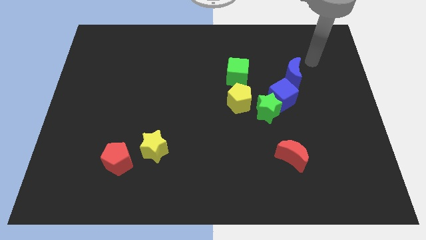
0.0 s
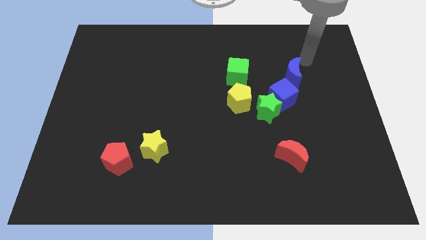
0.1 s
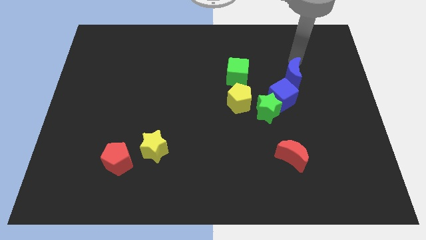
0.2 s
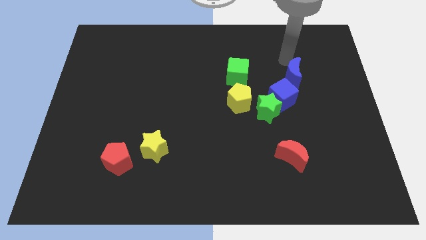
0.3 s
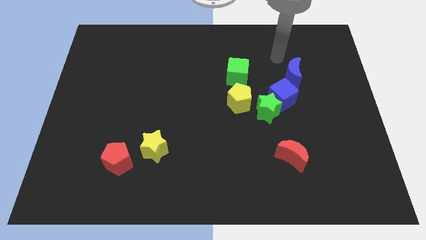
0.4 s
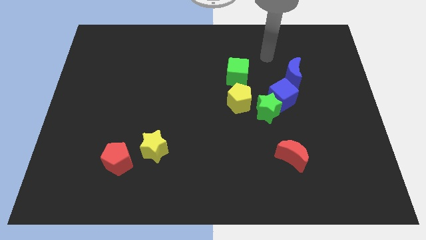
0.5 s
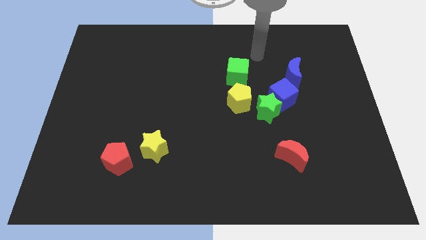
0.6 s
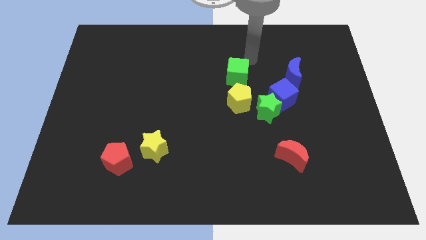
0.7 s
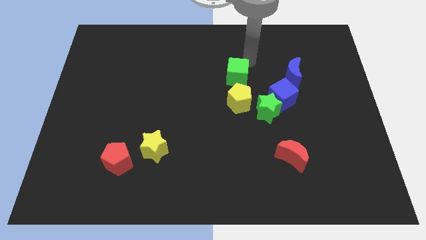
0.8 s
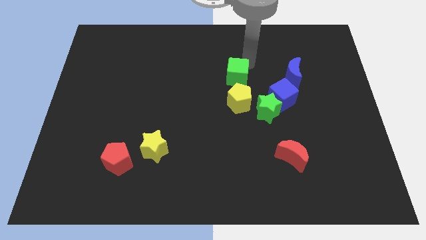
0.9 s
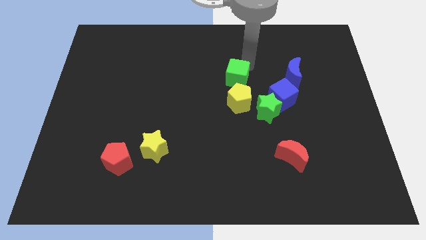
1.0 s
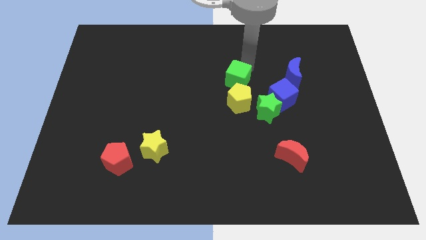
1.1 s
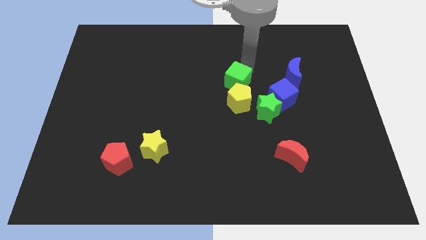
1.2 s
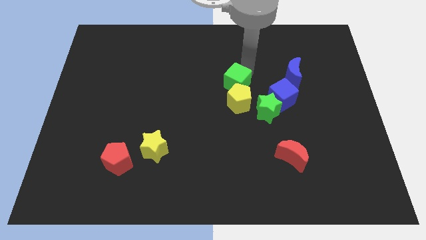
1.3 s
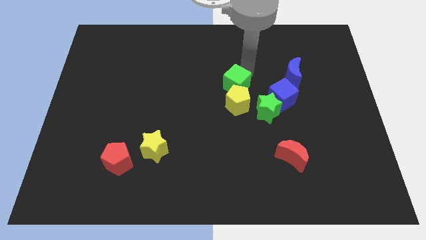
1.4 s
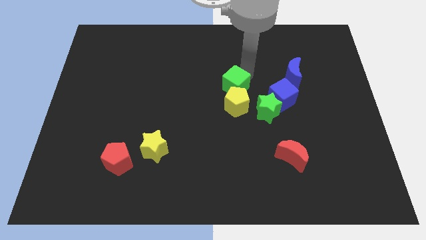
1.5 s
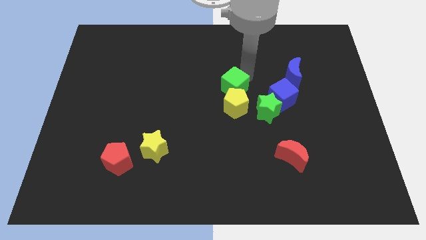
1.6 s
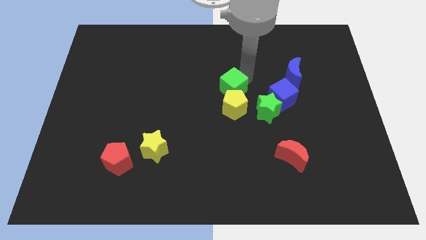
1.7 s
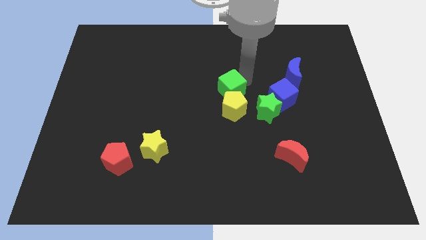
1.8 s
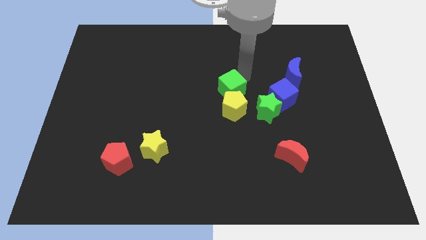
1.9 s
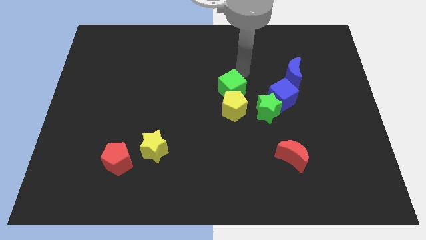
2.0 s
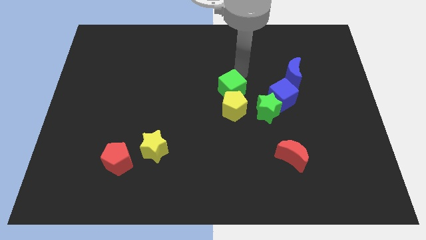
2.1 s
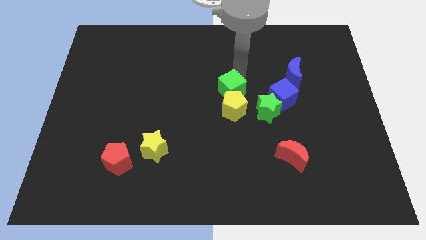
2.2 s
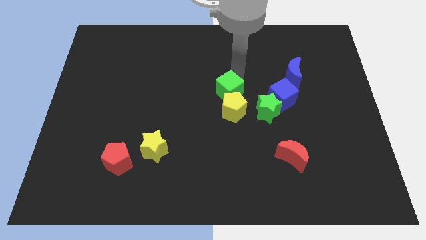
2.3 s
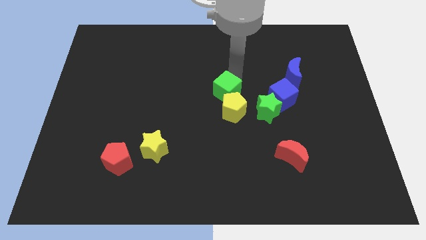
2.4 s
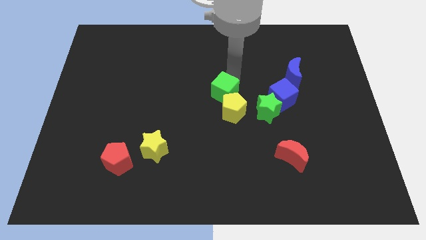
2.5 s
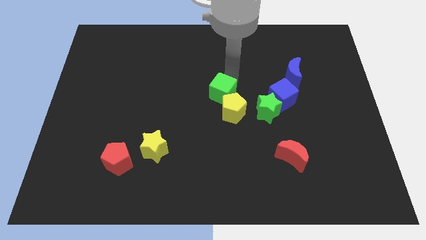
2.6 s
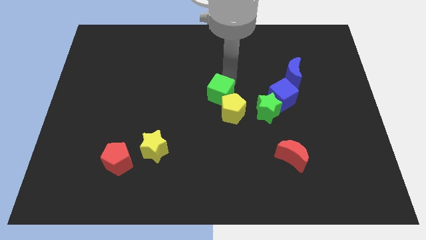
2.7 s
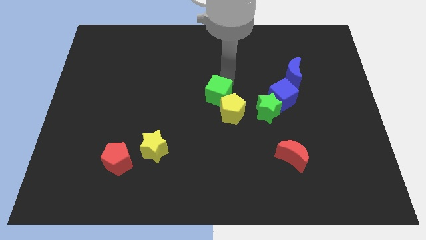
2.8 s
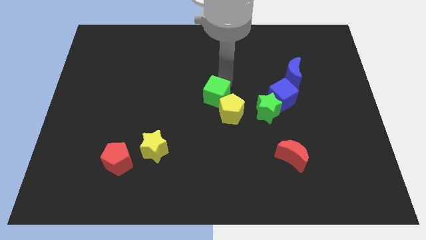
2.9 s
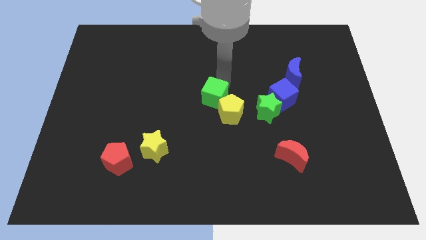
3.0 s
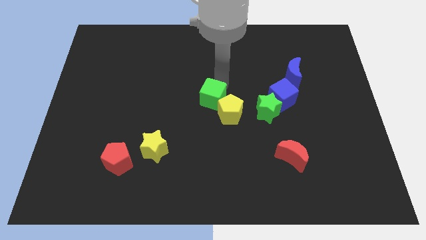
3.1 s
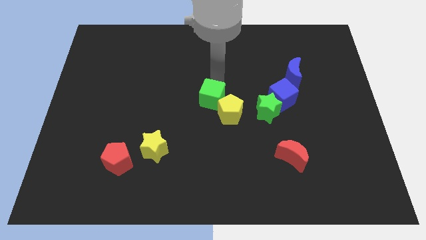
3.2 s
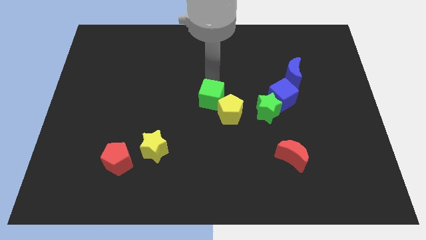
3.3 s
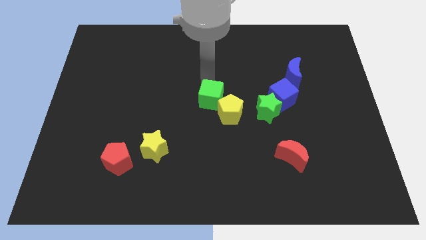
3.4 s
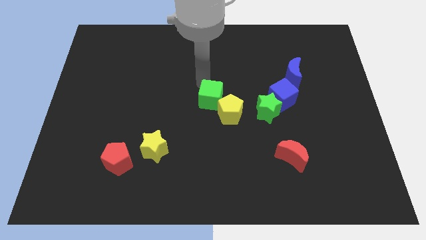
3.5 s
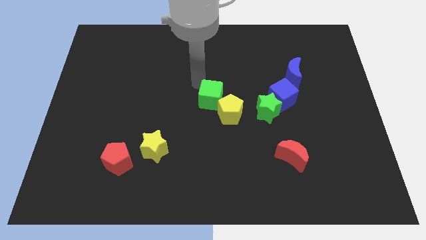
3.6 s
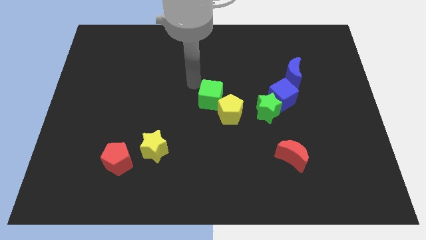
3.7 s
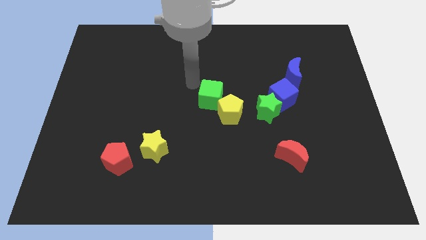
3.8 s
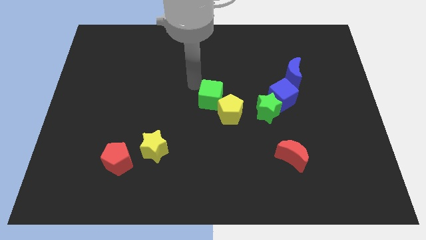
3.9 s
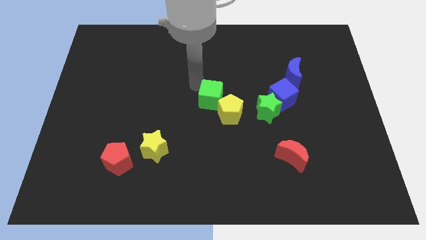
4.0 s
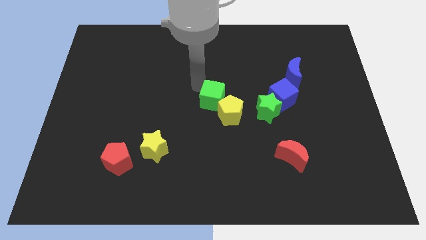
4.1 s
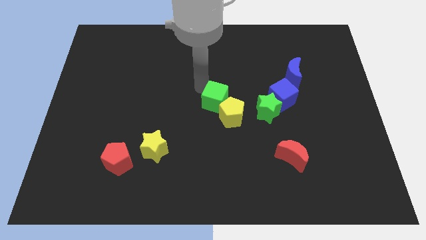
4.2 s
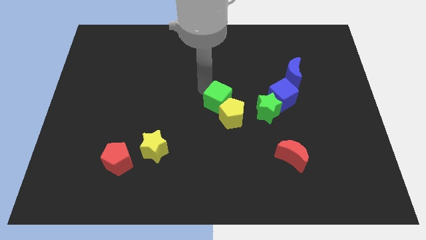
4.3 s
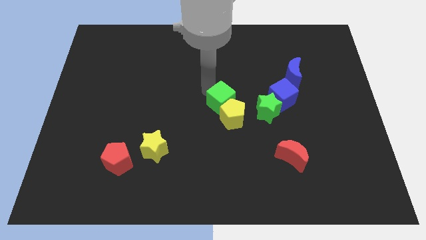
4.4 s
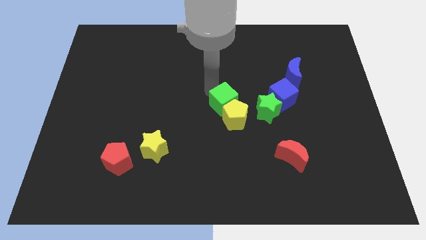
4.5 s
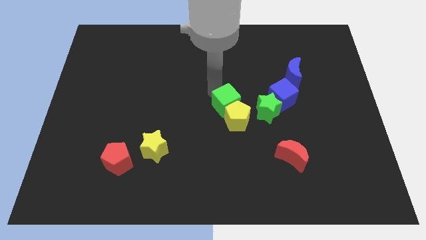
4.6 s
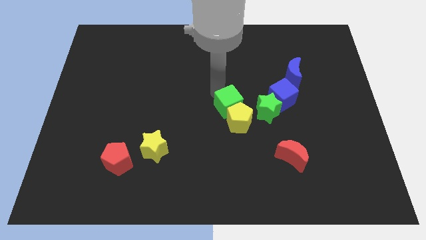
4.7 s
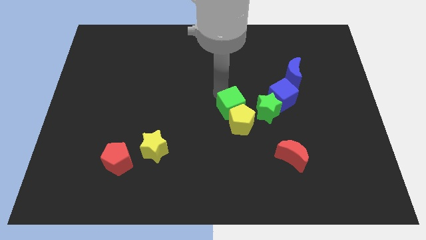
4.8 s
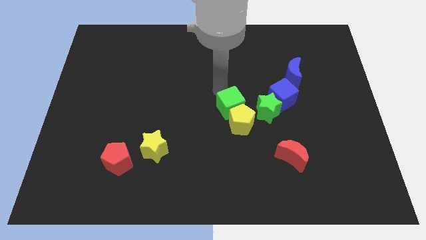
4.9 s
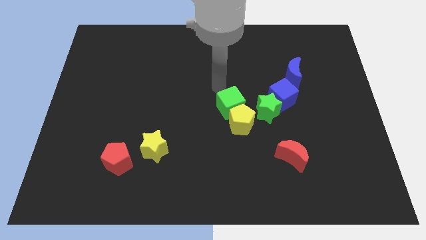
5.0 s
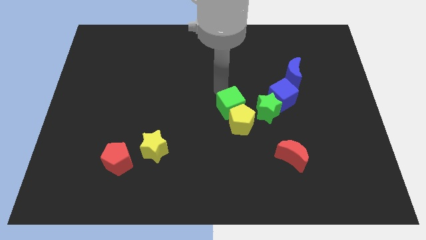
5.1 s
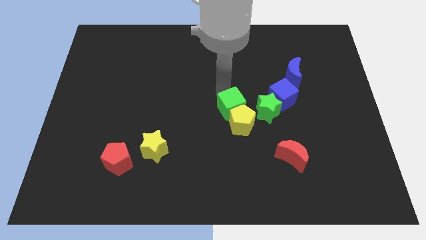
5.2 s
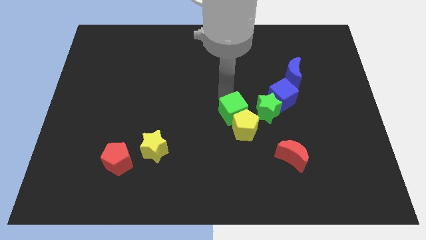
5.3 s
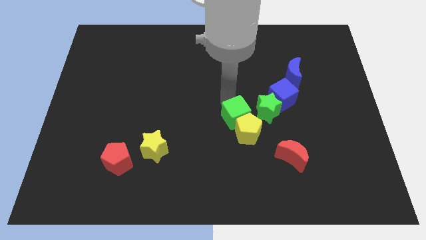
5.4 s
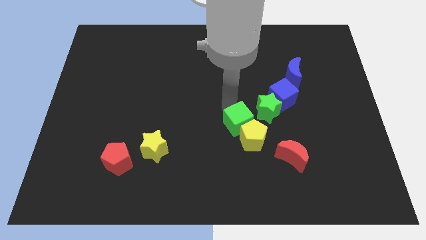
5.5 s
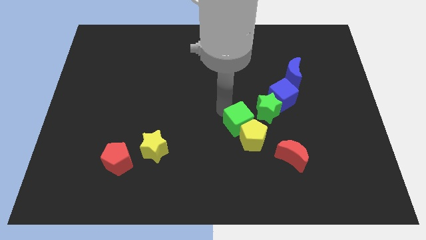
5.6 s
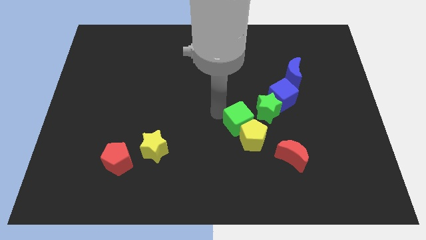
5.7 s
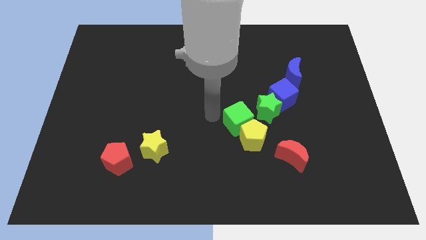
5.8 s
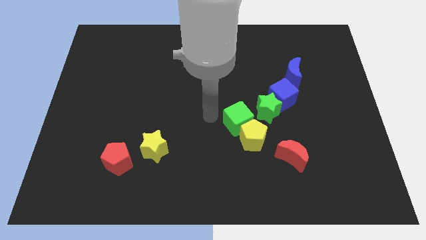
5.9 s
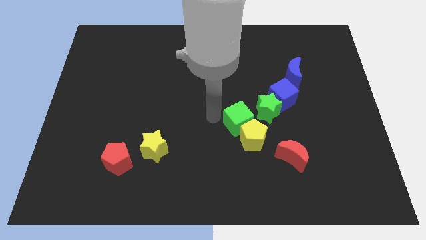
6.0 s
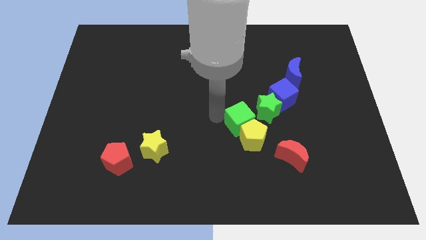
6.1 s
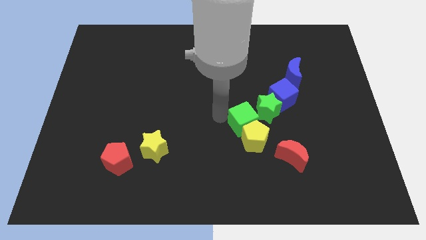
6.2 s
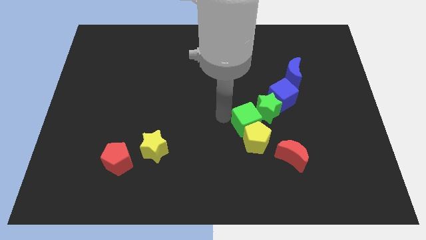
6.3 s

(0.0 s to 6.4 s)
slightly push the green cube down and to the right diagonally

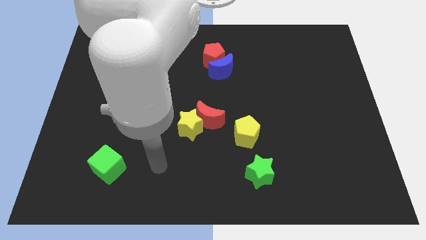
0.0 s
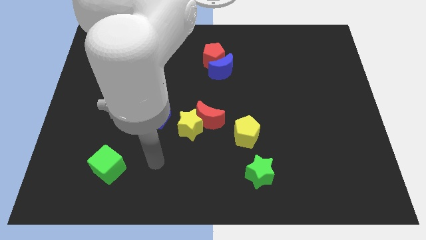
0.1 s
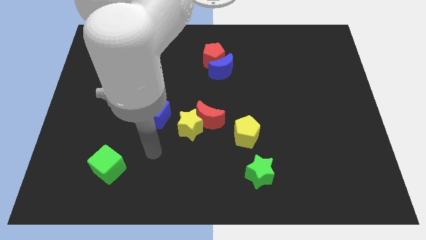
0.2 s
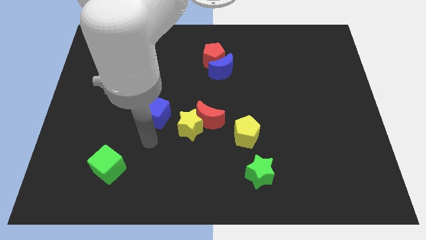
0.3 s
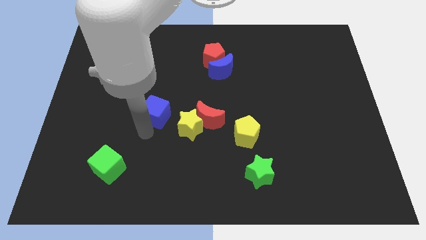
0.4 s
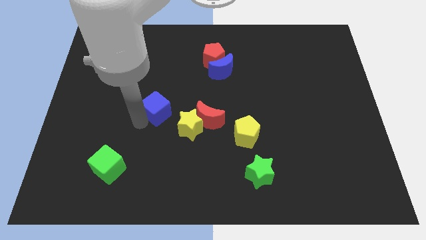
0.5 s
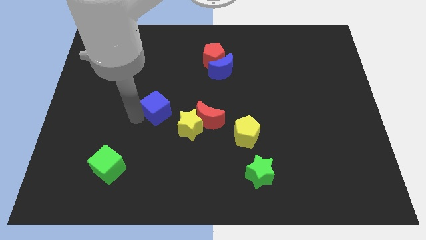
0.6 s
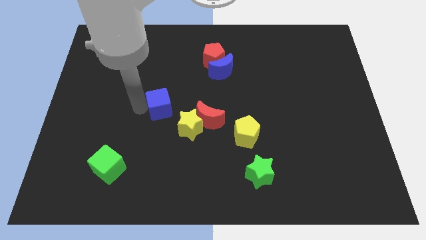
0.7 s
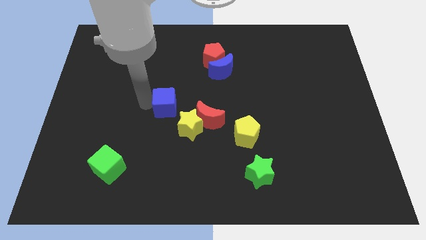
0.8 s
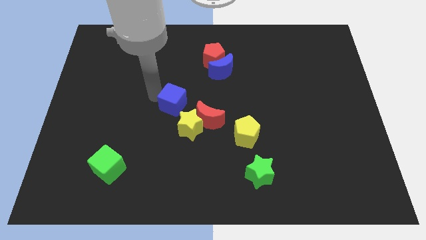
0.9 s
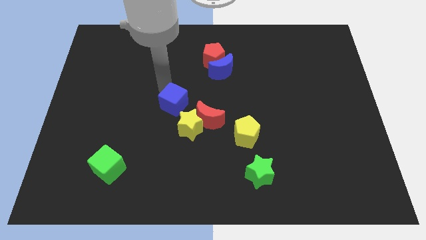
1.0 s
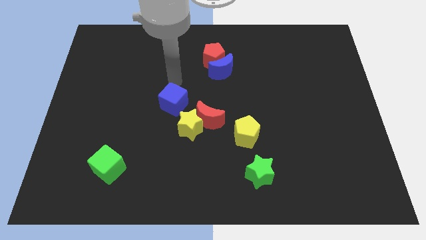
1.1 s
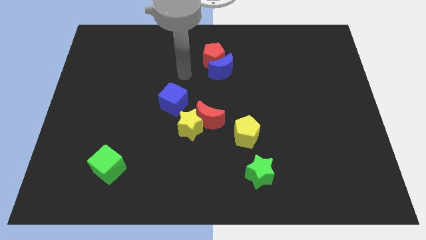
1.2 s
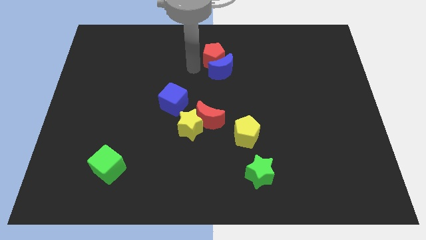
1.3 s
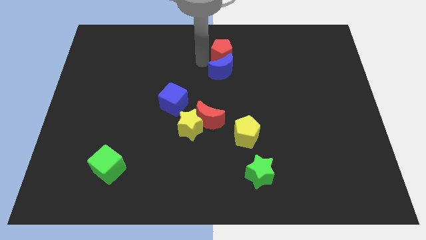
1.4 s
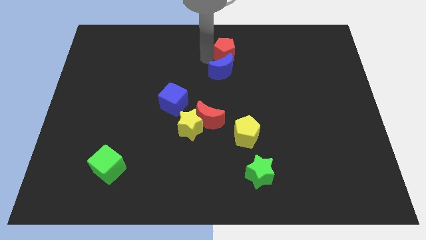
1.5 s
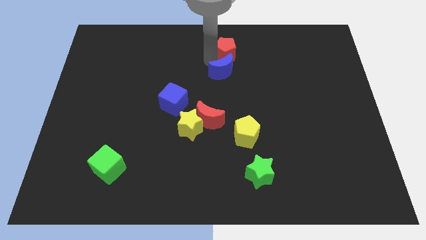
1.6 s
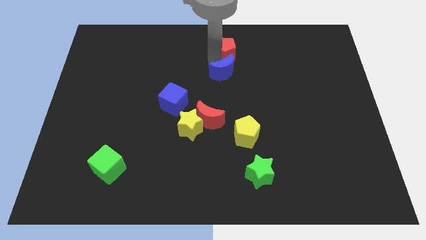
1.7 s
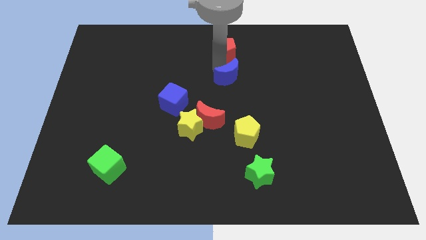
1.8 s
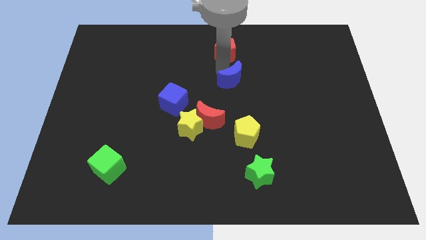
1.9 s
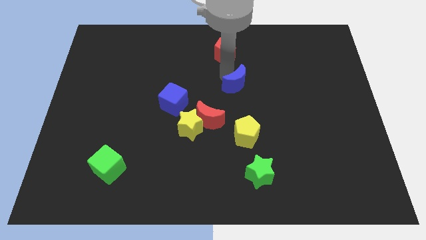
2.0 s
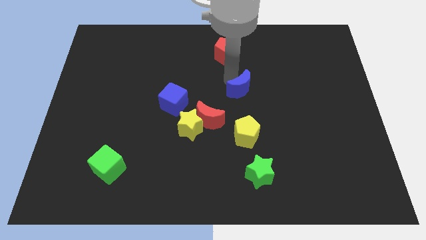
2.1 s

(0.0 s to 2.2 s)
move the blue moon a little bit downwards and right
